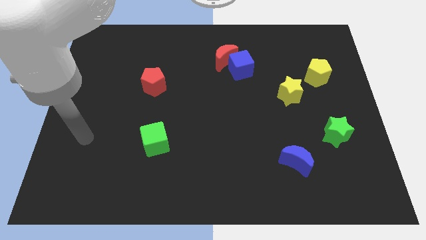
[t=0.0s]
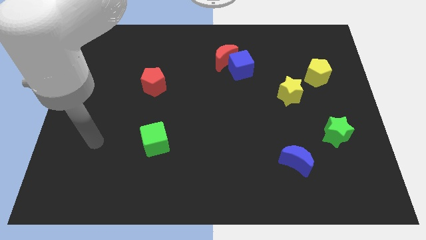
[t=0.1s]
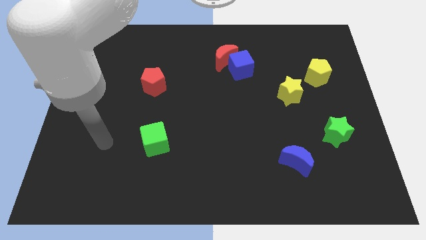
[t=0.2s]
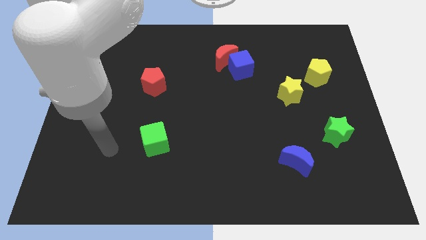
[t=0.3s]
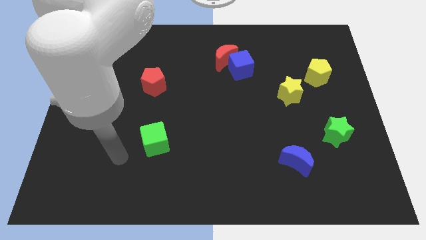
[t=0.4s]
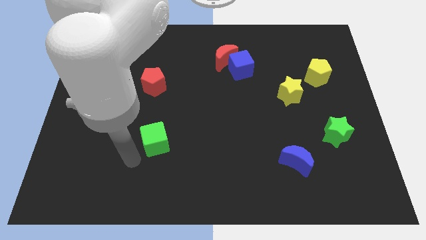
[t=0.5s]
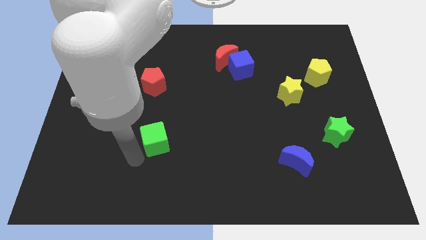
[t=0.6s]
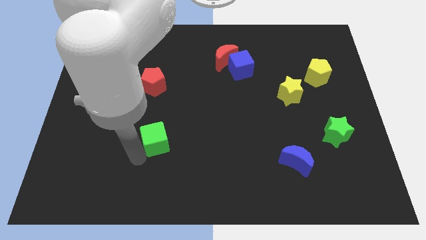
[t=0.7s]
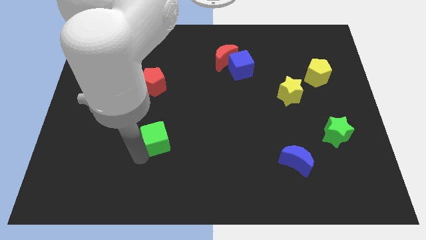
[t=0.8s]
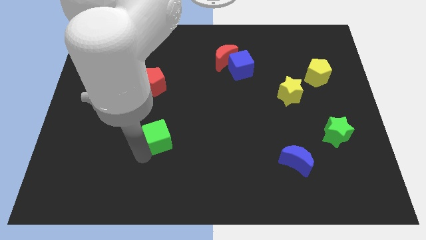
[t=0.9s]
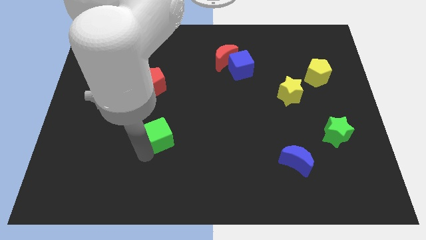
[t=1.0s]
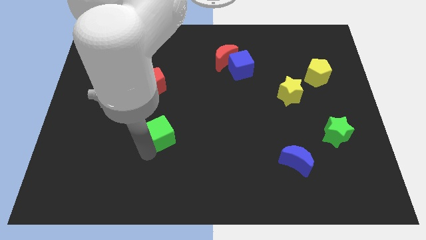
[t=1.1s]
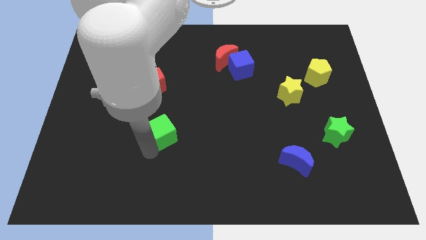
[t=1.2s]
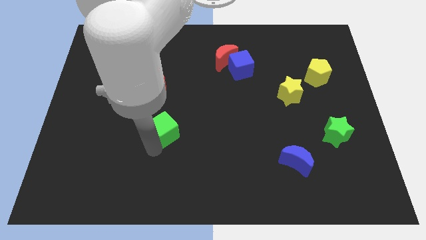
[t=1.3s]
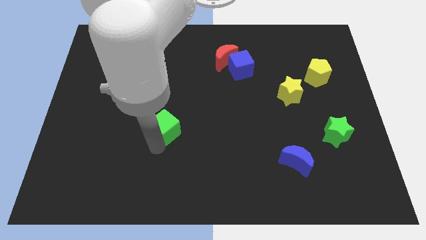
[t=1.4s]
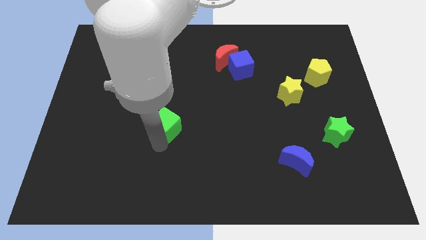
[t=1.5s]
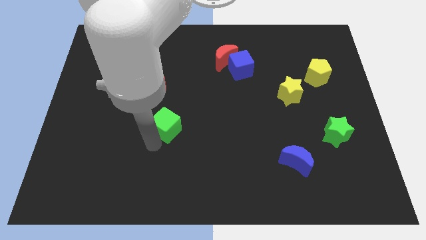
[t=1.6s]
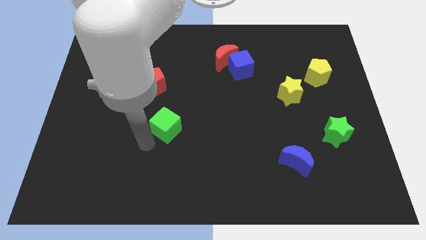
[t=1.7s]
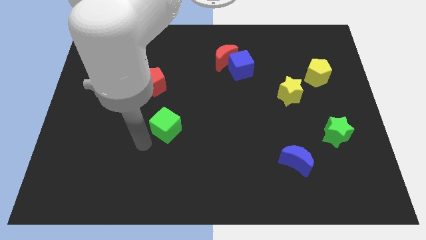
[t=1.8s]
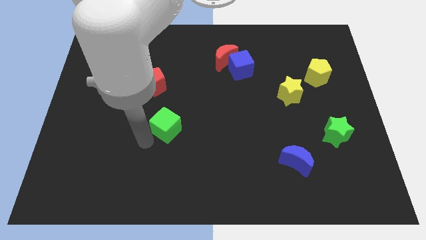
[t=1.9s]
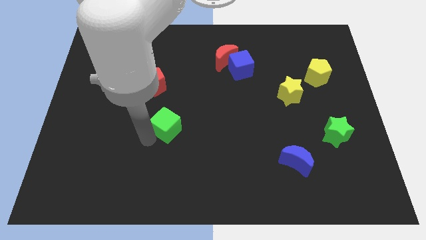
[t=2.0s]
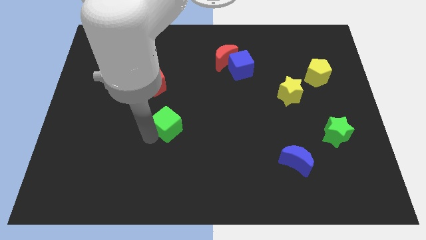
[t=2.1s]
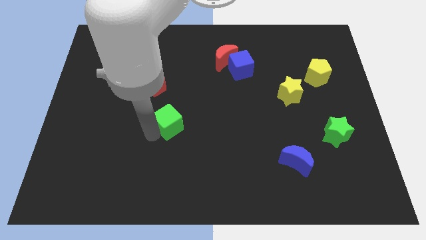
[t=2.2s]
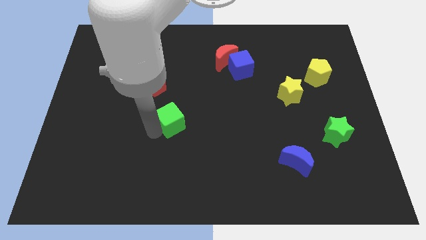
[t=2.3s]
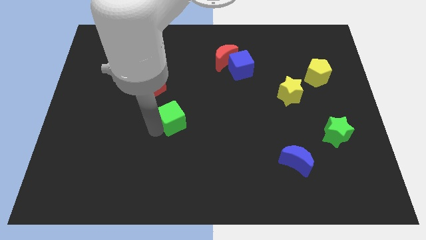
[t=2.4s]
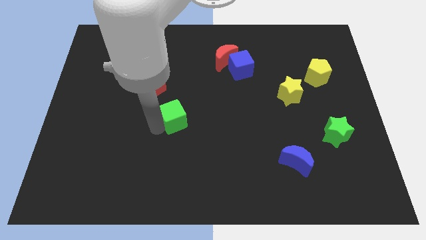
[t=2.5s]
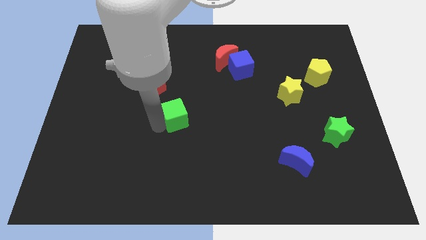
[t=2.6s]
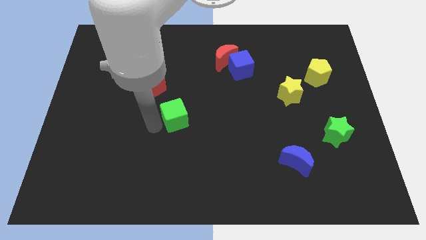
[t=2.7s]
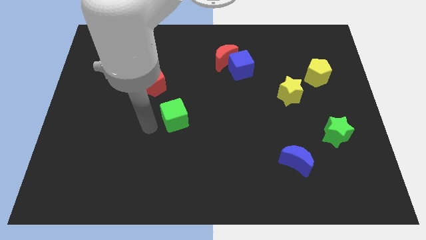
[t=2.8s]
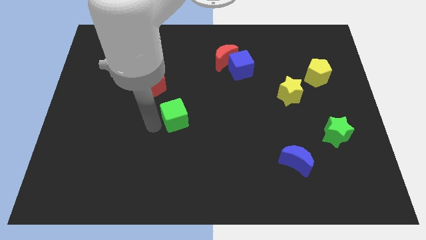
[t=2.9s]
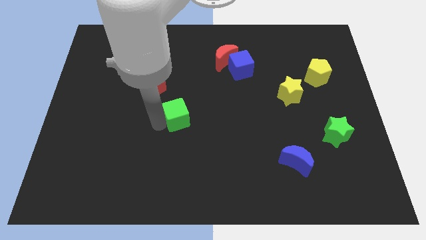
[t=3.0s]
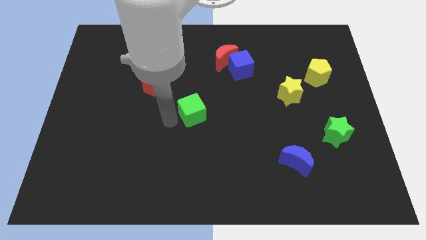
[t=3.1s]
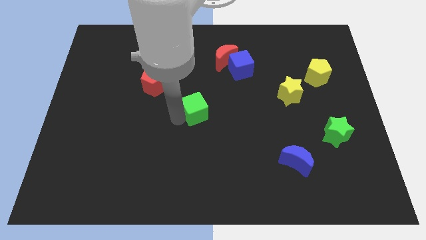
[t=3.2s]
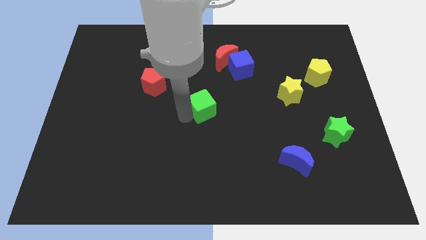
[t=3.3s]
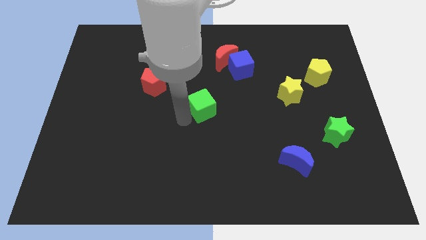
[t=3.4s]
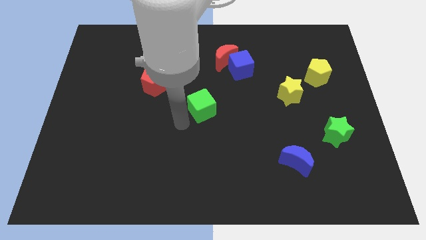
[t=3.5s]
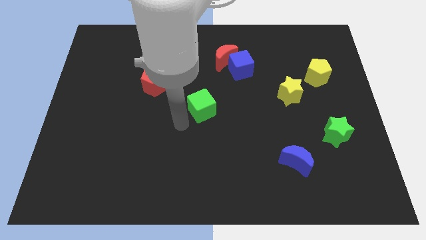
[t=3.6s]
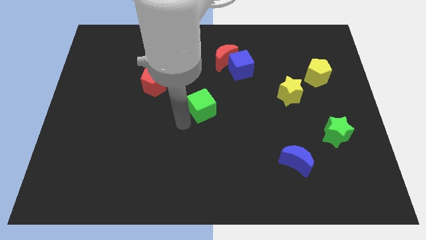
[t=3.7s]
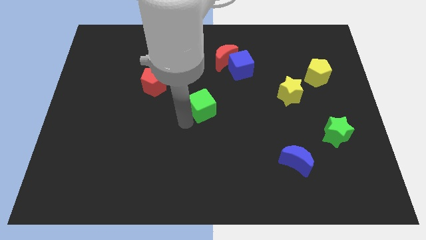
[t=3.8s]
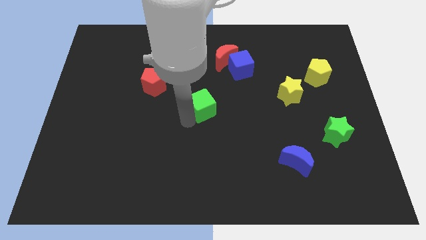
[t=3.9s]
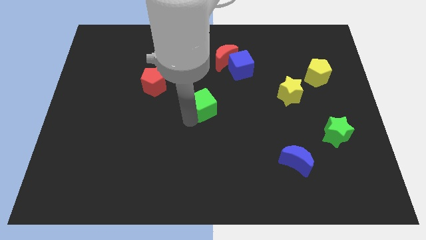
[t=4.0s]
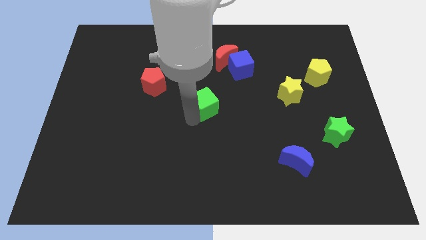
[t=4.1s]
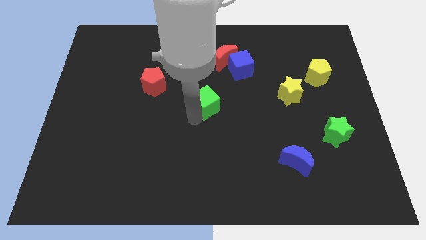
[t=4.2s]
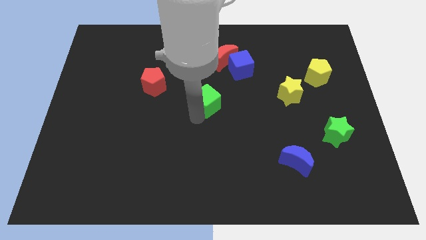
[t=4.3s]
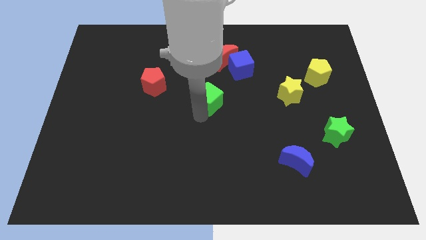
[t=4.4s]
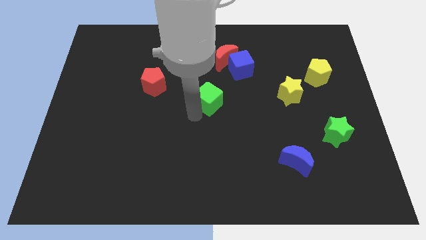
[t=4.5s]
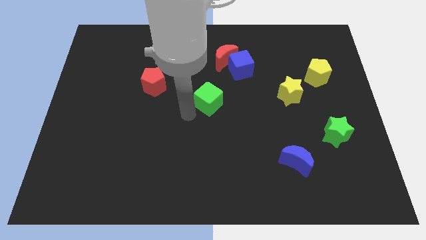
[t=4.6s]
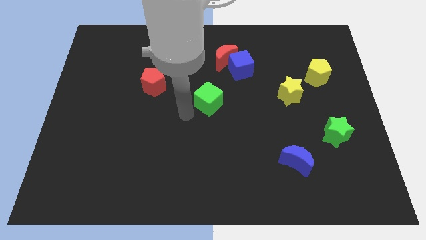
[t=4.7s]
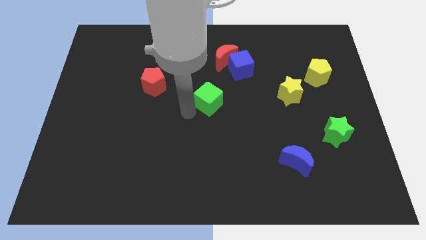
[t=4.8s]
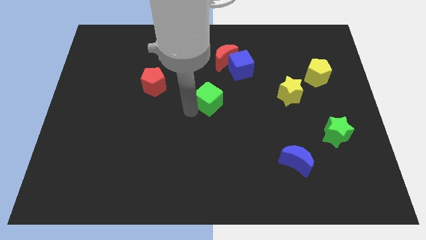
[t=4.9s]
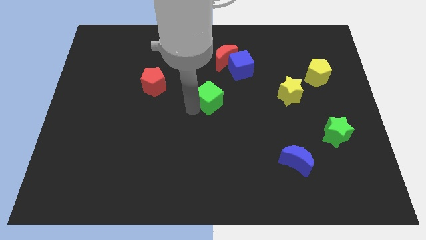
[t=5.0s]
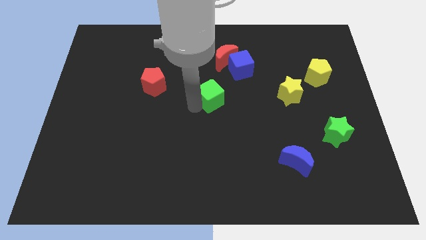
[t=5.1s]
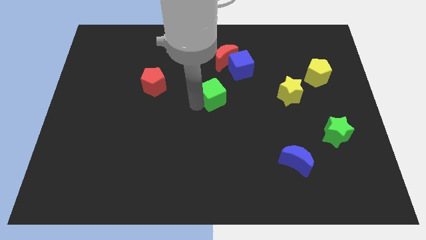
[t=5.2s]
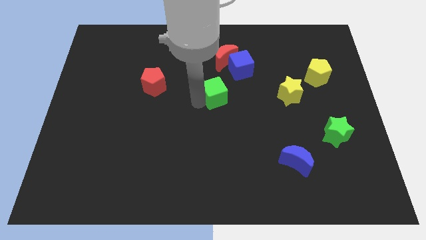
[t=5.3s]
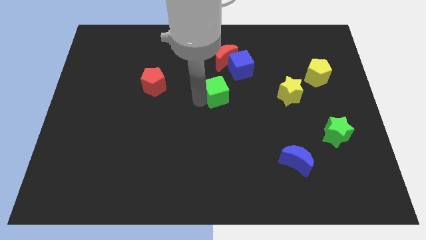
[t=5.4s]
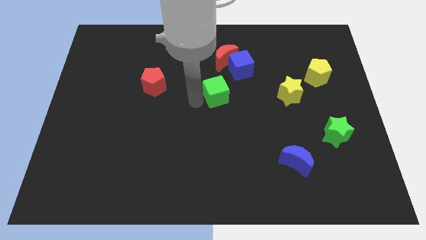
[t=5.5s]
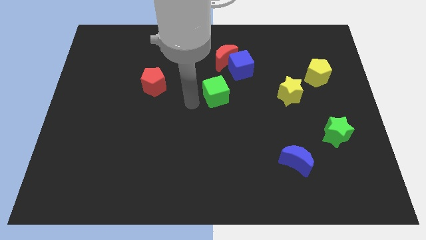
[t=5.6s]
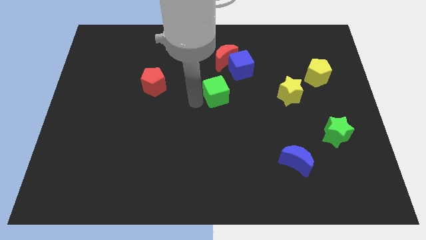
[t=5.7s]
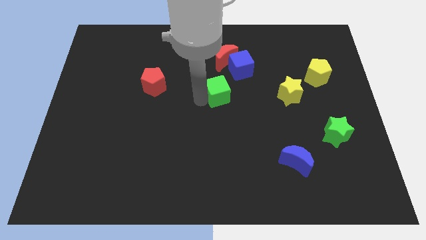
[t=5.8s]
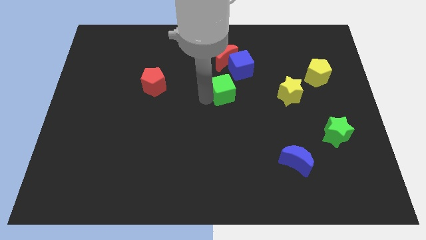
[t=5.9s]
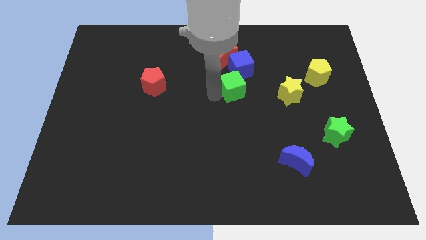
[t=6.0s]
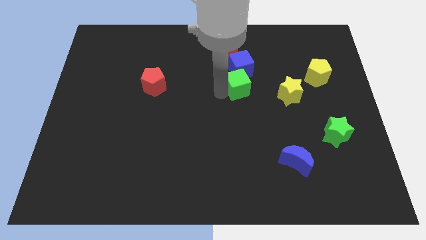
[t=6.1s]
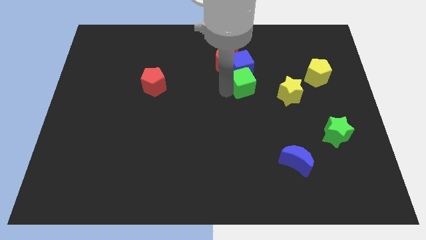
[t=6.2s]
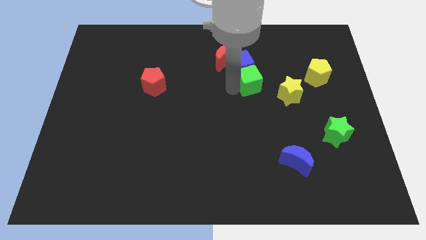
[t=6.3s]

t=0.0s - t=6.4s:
put the green cube diagonally up and to the left of the yellow star

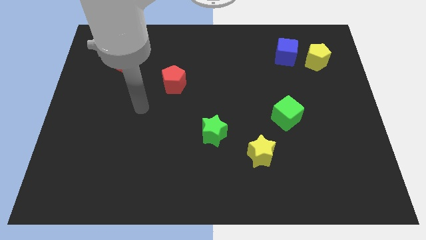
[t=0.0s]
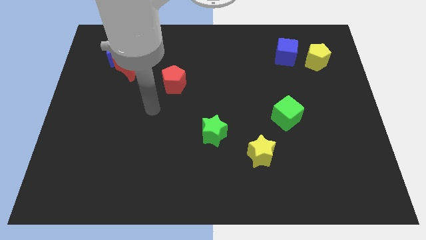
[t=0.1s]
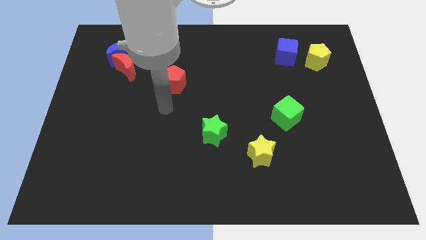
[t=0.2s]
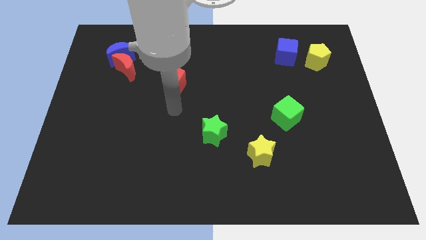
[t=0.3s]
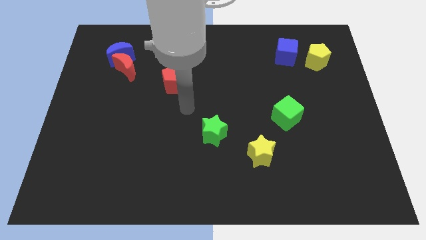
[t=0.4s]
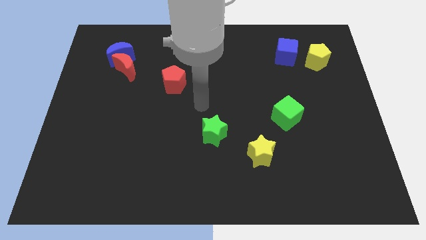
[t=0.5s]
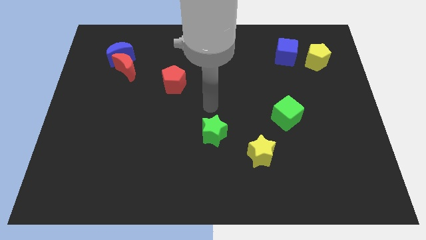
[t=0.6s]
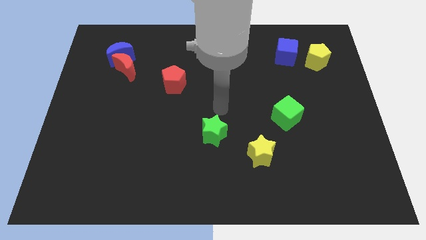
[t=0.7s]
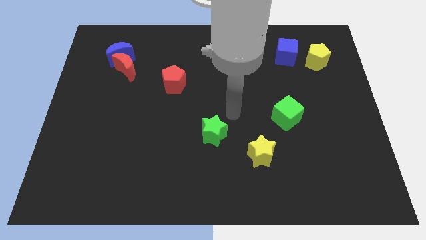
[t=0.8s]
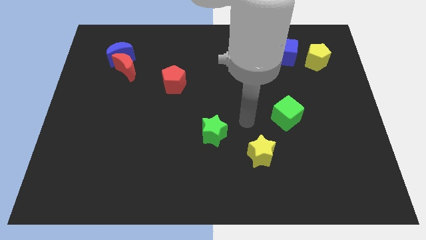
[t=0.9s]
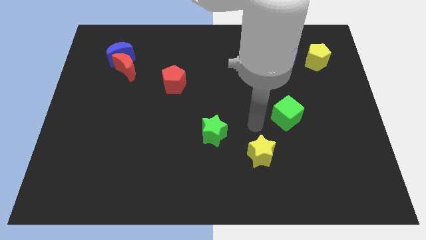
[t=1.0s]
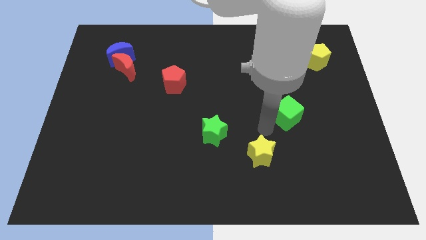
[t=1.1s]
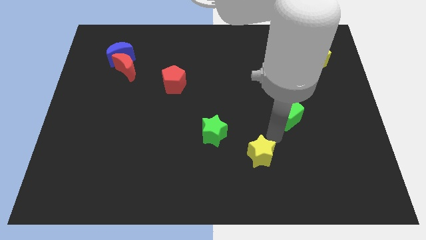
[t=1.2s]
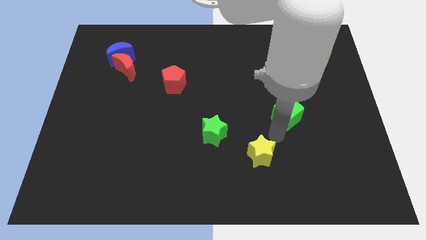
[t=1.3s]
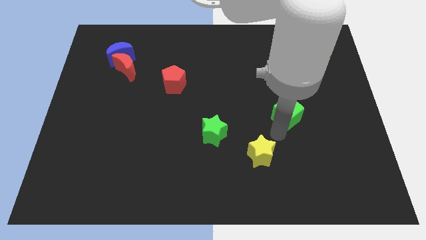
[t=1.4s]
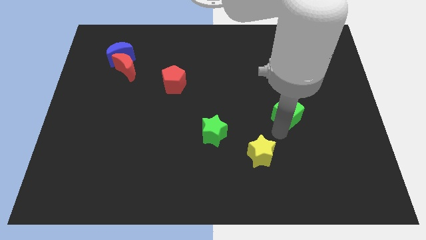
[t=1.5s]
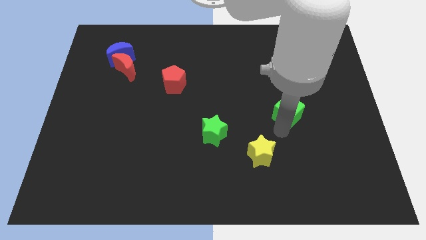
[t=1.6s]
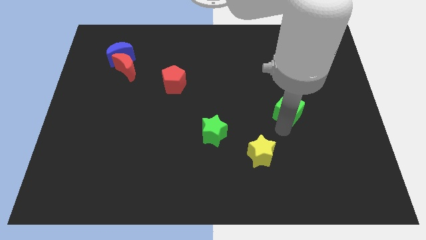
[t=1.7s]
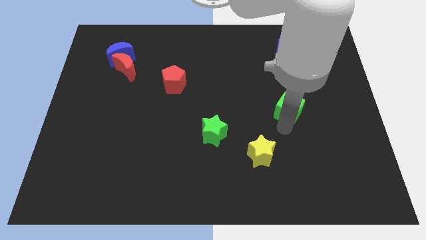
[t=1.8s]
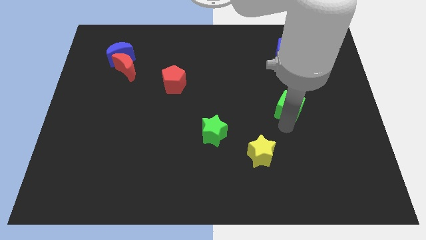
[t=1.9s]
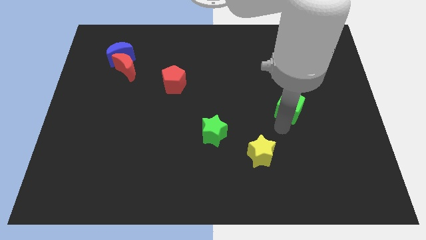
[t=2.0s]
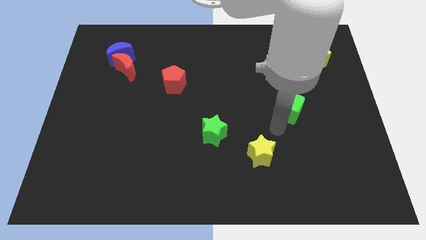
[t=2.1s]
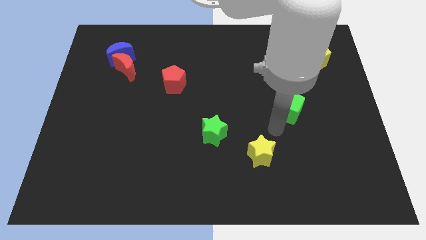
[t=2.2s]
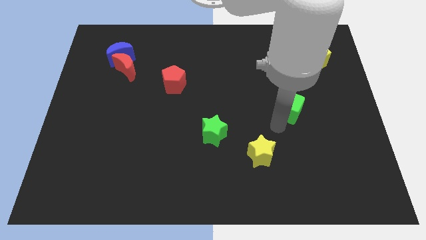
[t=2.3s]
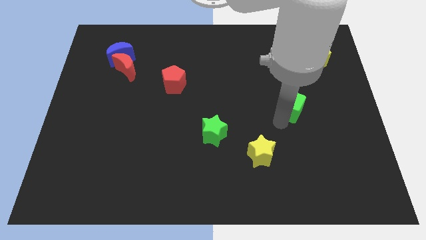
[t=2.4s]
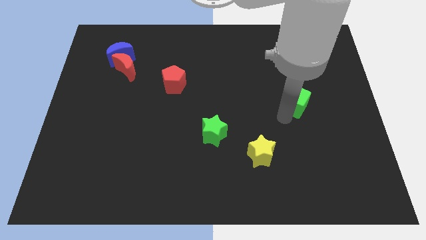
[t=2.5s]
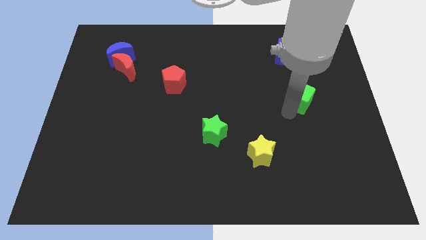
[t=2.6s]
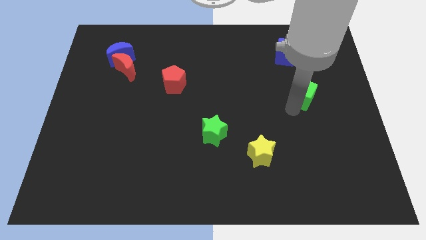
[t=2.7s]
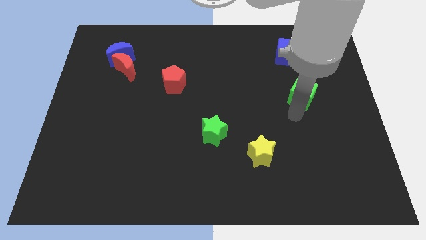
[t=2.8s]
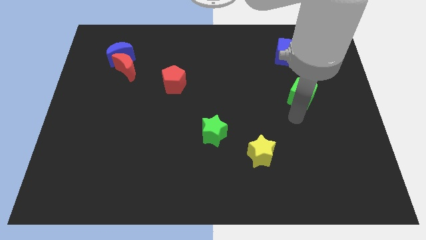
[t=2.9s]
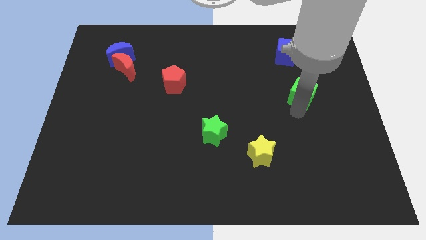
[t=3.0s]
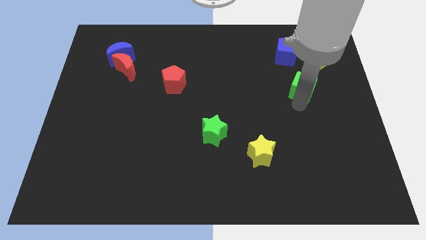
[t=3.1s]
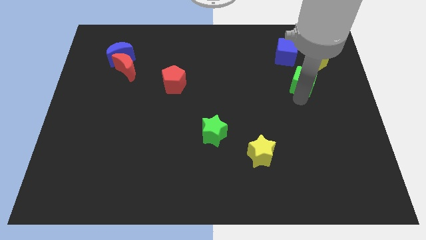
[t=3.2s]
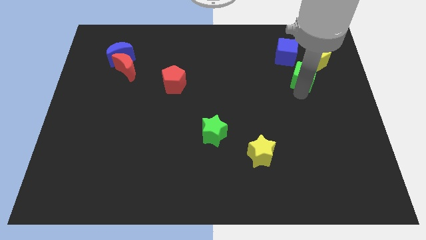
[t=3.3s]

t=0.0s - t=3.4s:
move the green cube to the bottom right of the blue cube
